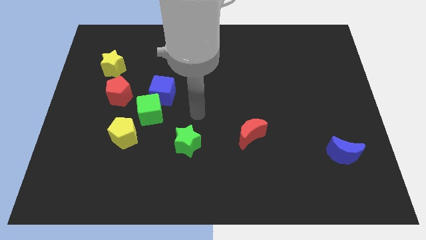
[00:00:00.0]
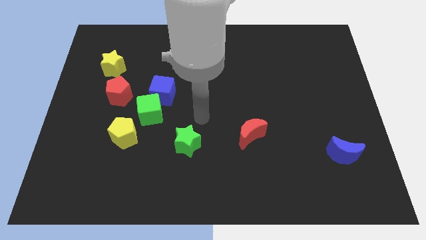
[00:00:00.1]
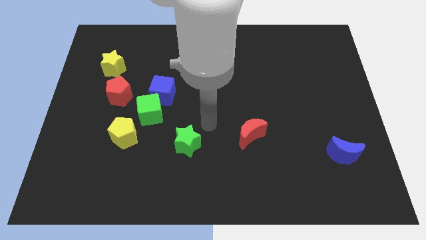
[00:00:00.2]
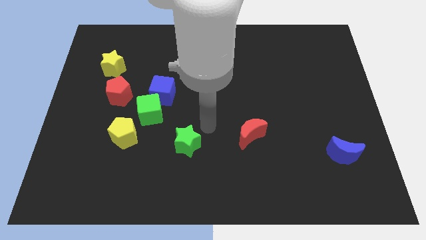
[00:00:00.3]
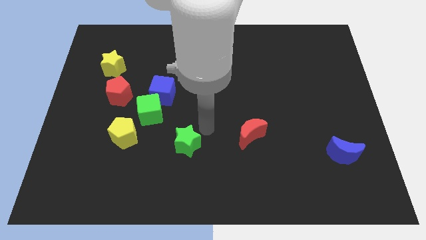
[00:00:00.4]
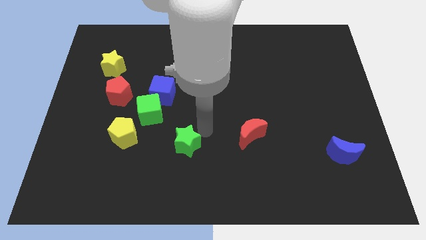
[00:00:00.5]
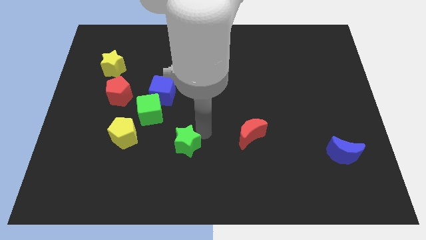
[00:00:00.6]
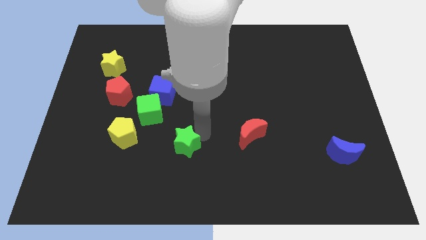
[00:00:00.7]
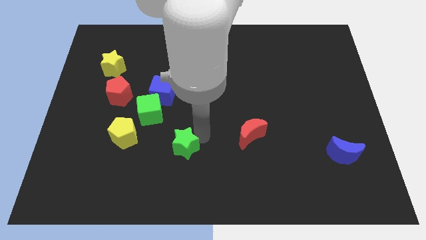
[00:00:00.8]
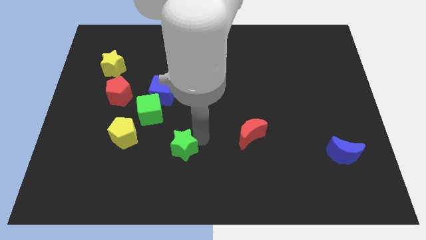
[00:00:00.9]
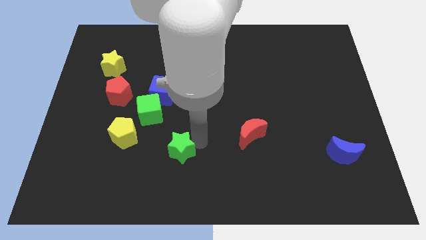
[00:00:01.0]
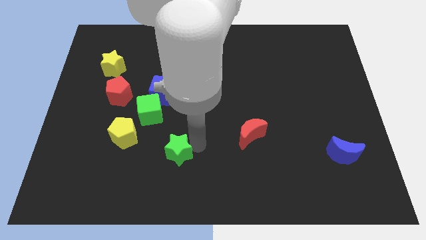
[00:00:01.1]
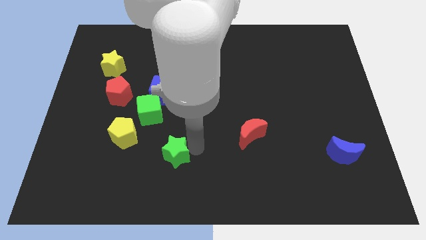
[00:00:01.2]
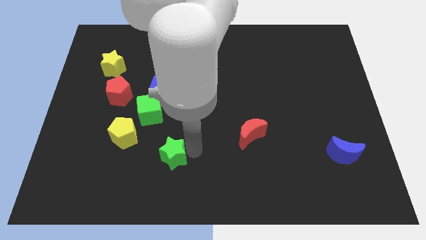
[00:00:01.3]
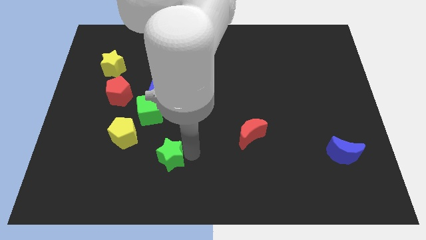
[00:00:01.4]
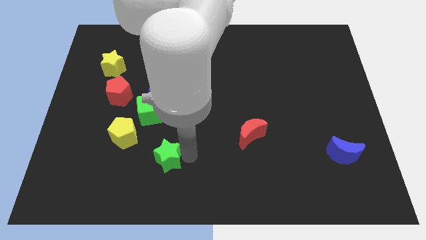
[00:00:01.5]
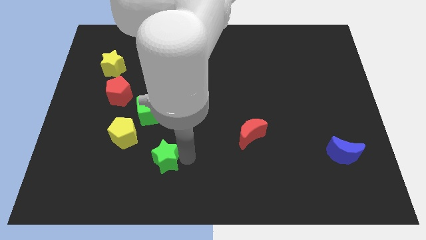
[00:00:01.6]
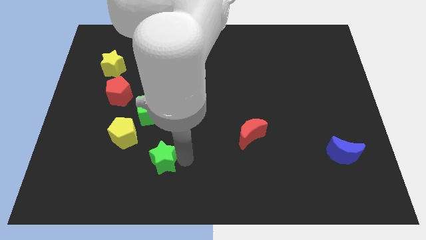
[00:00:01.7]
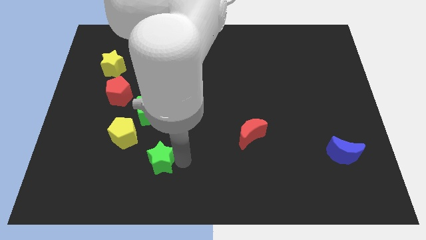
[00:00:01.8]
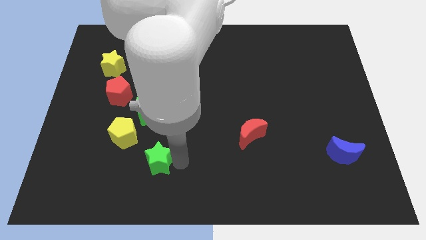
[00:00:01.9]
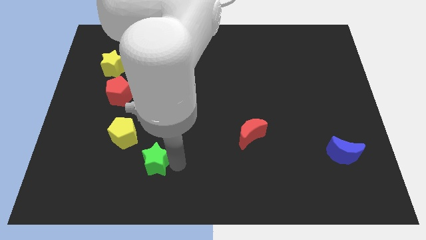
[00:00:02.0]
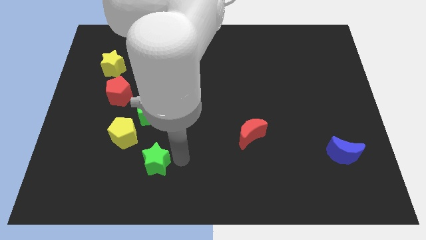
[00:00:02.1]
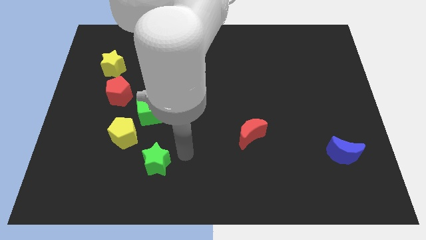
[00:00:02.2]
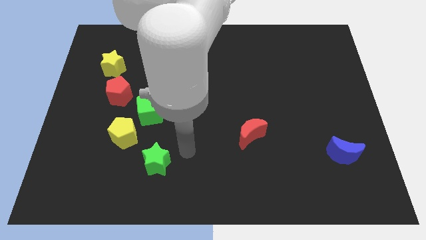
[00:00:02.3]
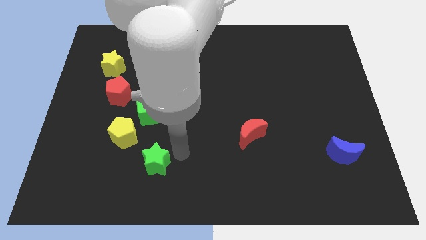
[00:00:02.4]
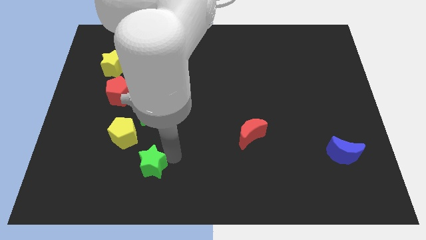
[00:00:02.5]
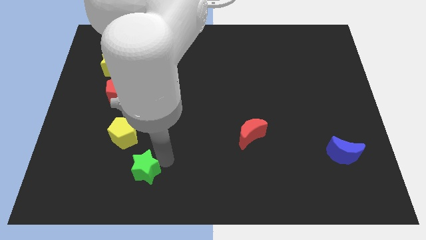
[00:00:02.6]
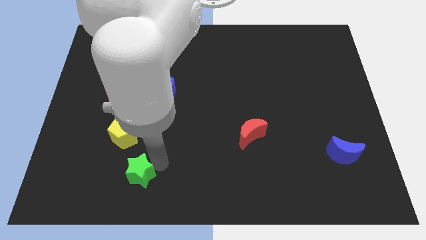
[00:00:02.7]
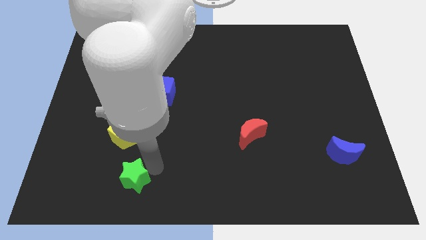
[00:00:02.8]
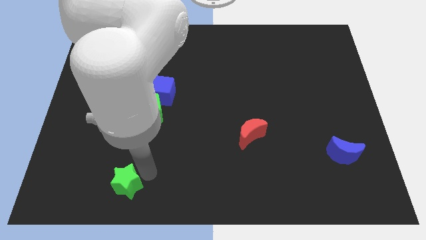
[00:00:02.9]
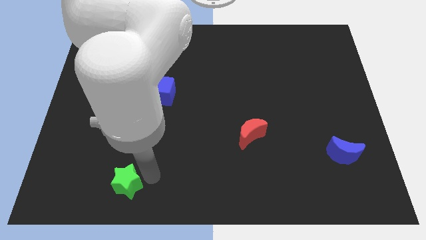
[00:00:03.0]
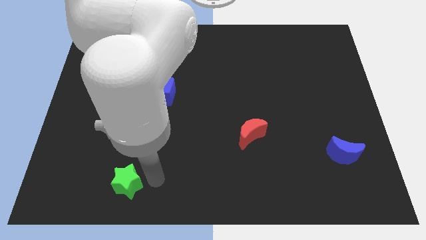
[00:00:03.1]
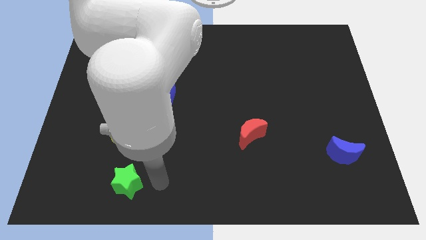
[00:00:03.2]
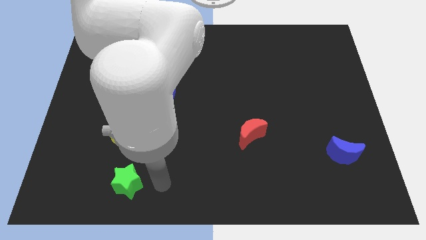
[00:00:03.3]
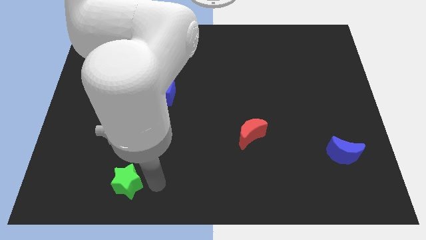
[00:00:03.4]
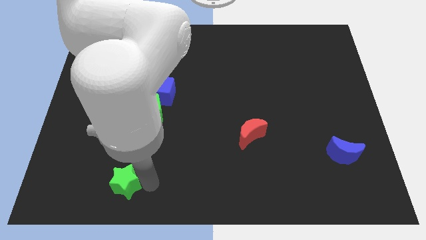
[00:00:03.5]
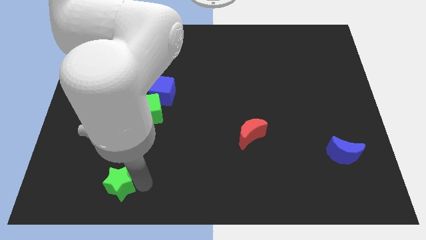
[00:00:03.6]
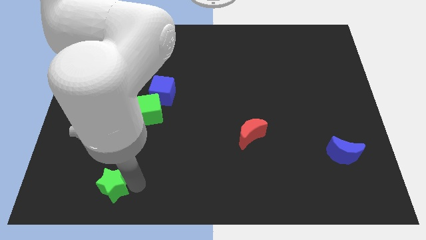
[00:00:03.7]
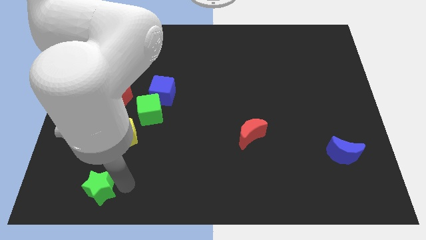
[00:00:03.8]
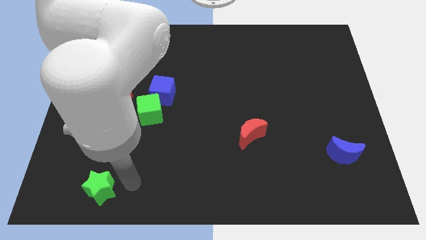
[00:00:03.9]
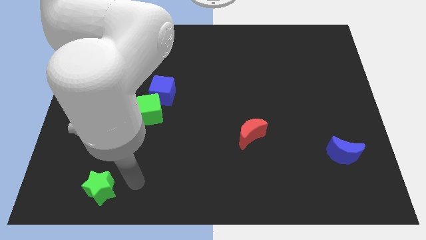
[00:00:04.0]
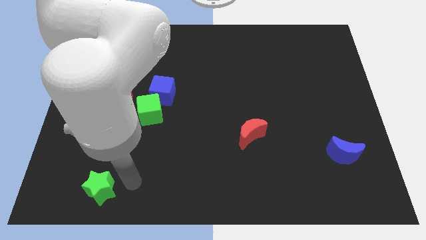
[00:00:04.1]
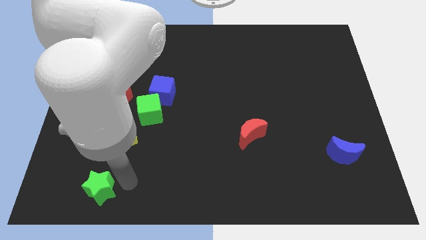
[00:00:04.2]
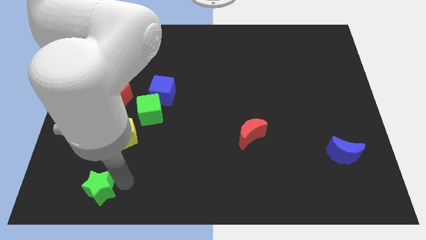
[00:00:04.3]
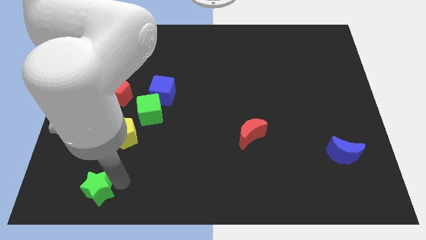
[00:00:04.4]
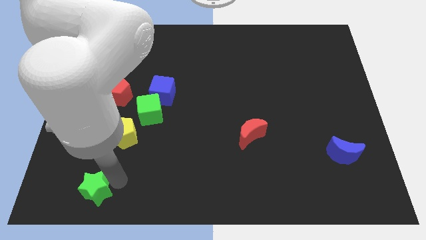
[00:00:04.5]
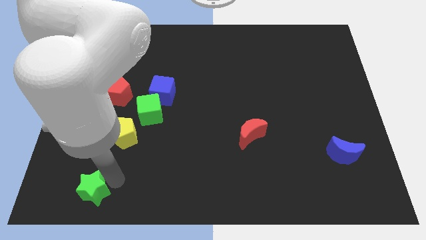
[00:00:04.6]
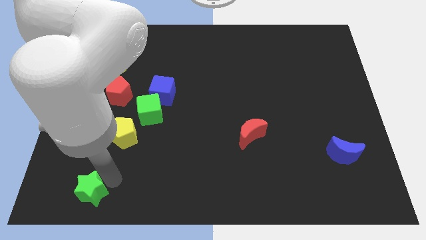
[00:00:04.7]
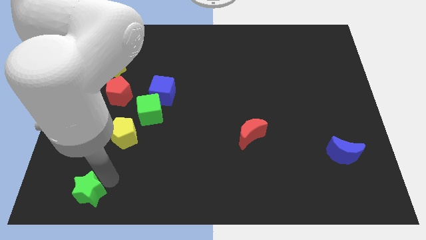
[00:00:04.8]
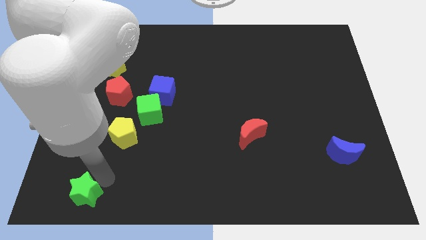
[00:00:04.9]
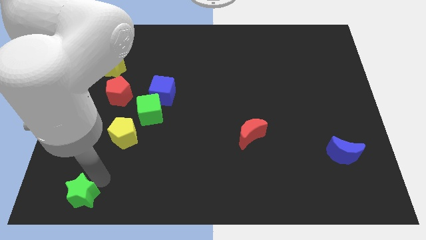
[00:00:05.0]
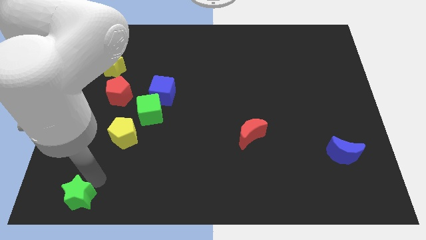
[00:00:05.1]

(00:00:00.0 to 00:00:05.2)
move the green star to the lower left corner

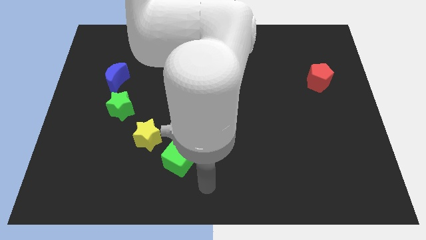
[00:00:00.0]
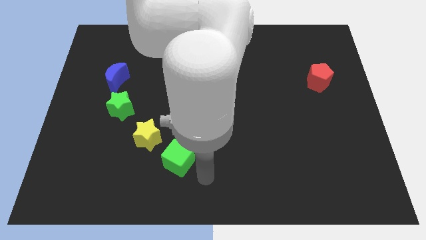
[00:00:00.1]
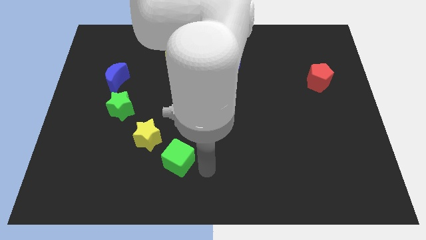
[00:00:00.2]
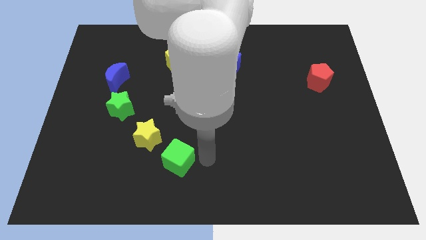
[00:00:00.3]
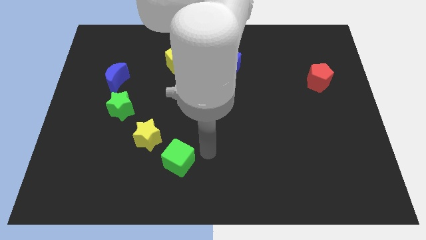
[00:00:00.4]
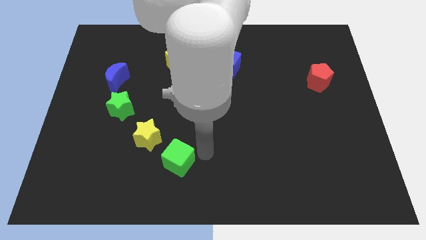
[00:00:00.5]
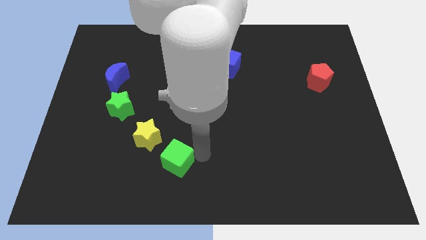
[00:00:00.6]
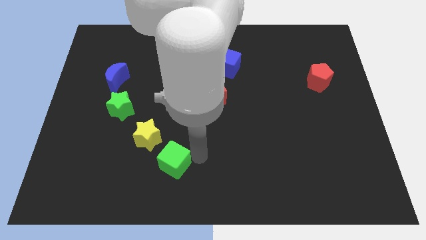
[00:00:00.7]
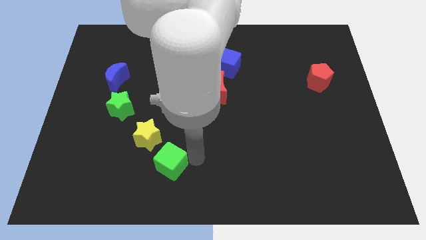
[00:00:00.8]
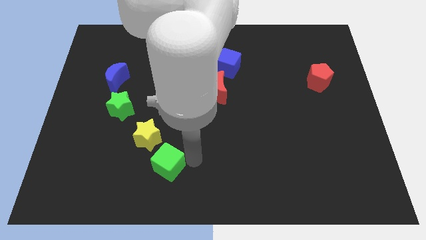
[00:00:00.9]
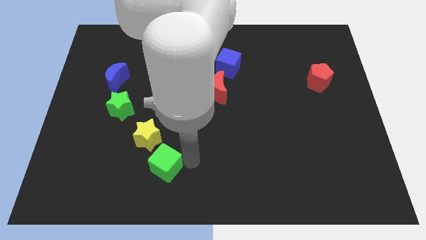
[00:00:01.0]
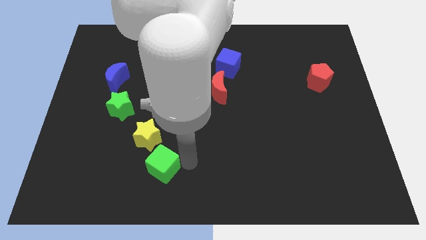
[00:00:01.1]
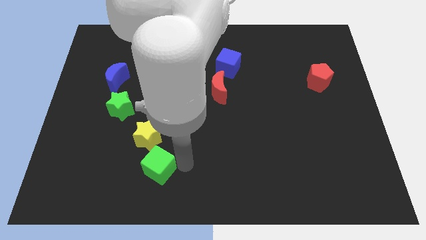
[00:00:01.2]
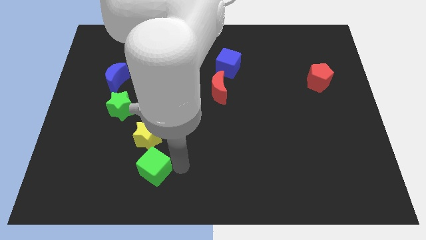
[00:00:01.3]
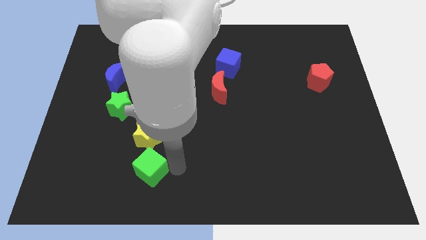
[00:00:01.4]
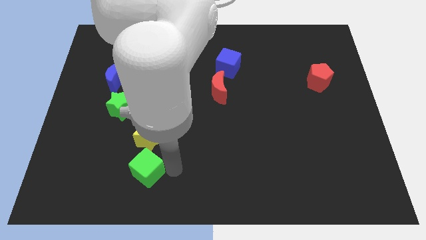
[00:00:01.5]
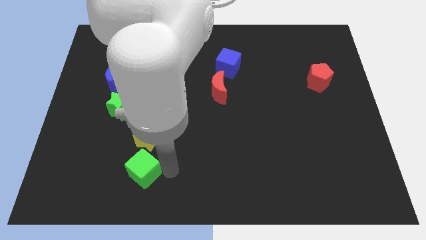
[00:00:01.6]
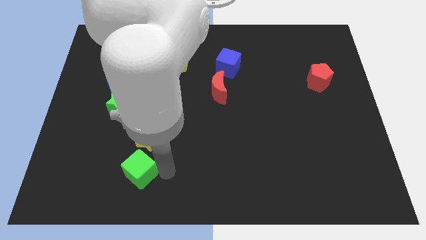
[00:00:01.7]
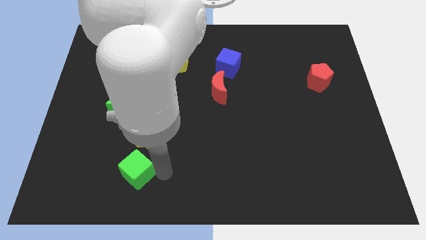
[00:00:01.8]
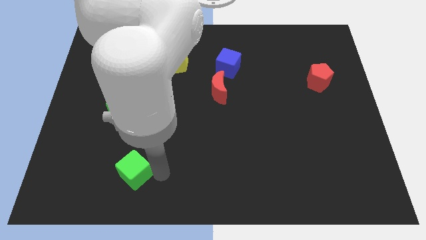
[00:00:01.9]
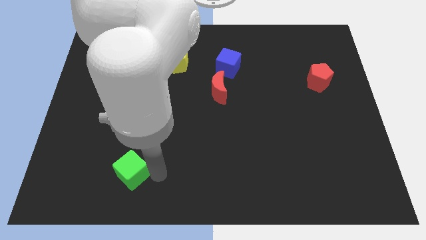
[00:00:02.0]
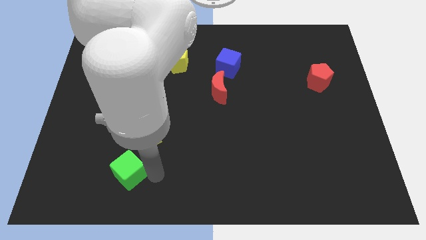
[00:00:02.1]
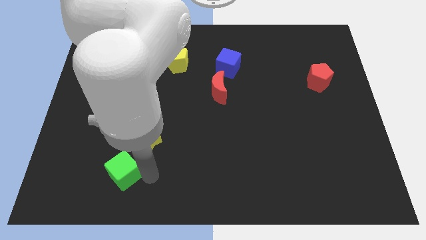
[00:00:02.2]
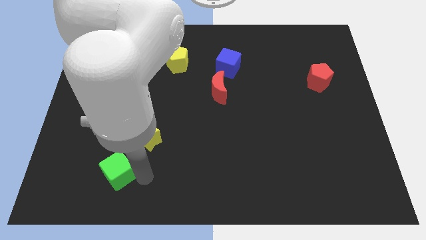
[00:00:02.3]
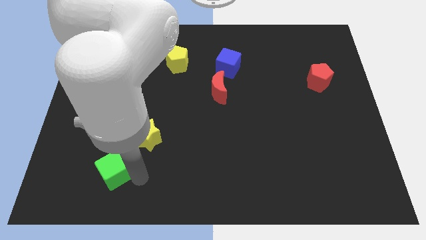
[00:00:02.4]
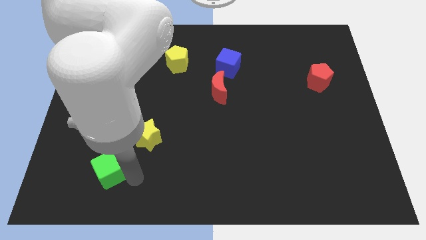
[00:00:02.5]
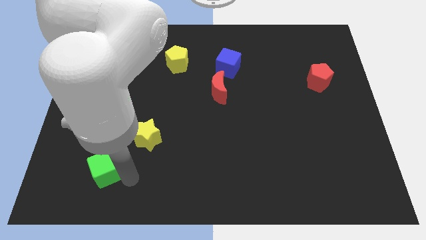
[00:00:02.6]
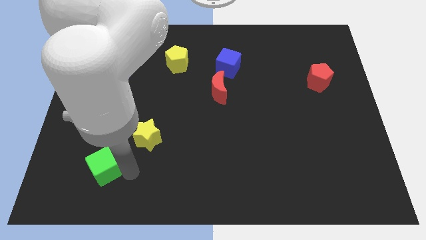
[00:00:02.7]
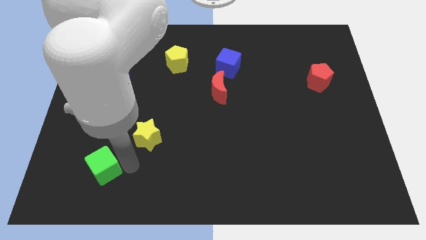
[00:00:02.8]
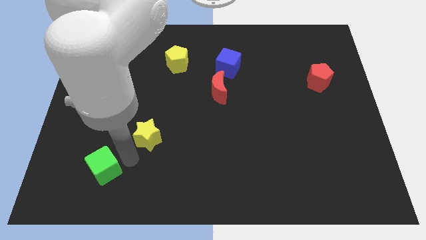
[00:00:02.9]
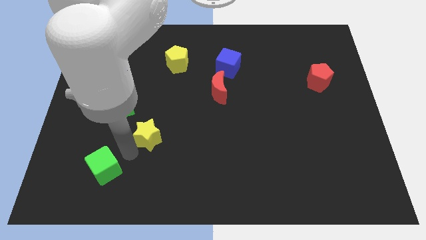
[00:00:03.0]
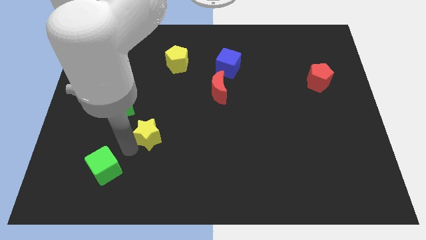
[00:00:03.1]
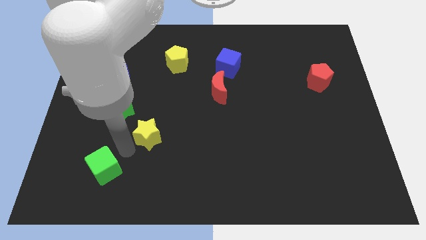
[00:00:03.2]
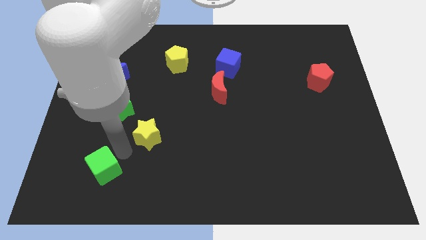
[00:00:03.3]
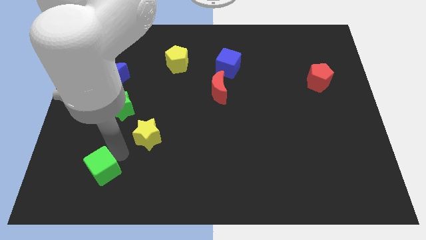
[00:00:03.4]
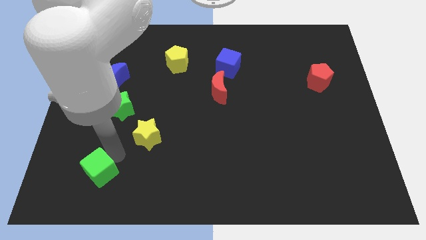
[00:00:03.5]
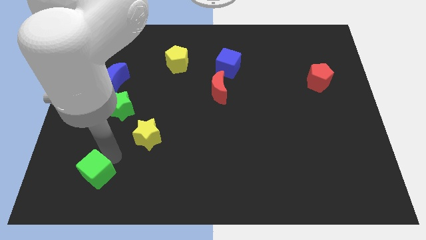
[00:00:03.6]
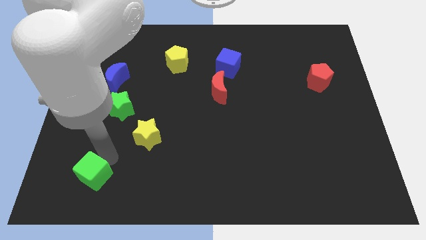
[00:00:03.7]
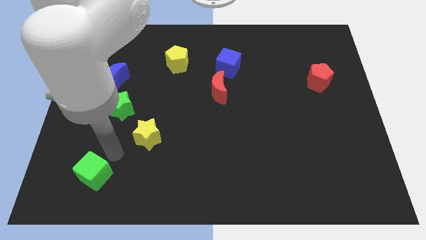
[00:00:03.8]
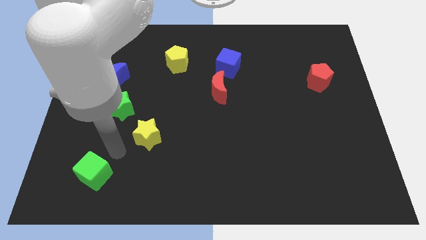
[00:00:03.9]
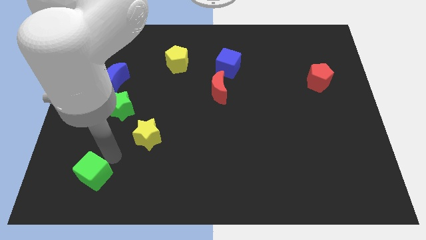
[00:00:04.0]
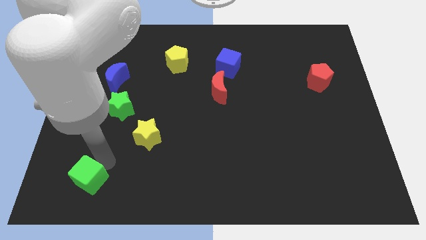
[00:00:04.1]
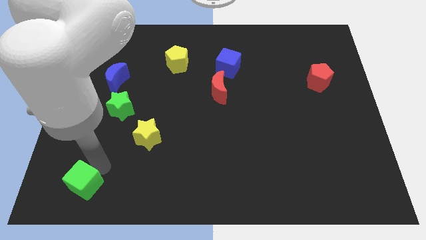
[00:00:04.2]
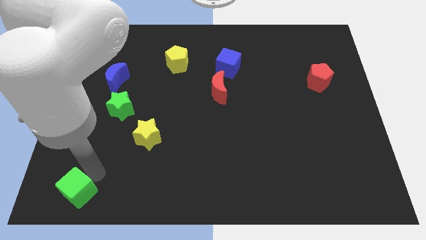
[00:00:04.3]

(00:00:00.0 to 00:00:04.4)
move the green cube to the bottom left
